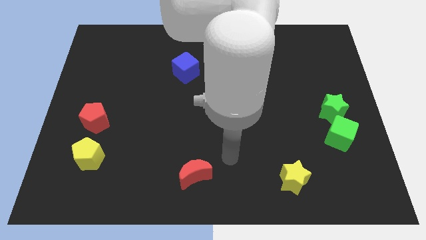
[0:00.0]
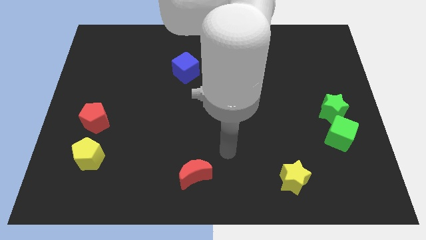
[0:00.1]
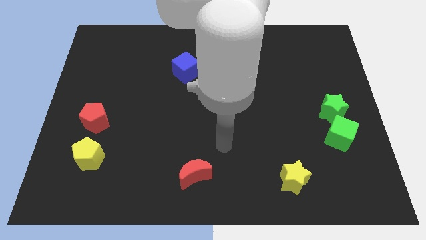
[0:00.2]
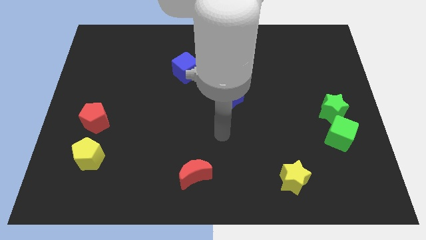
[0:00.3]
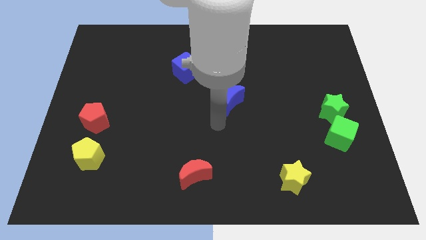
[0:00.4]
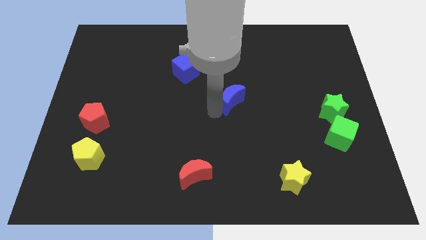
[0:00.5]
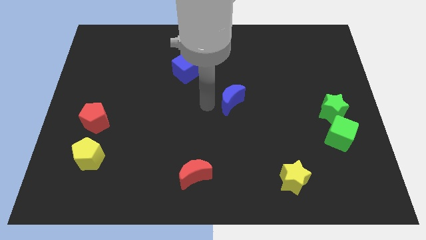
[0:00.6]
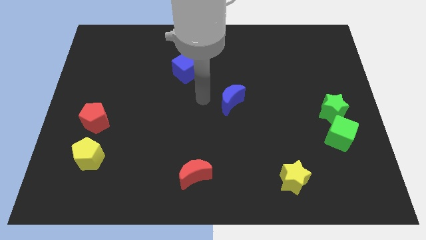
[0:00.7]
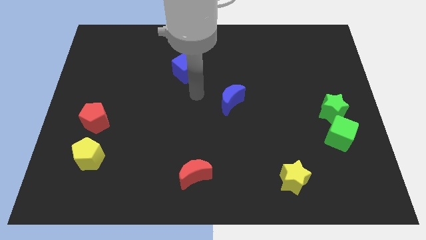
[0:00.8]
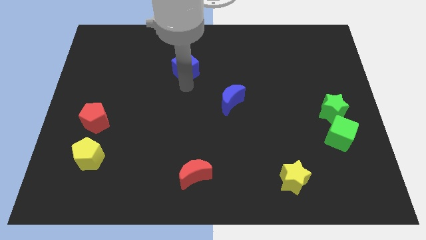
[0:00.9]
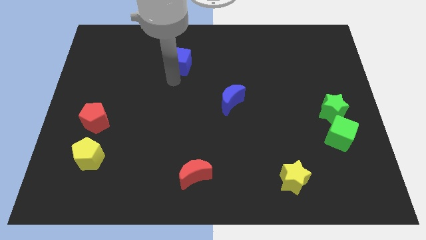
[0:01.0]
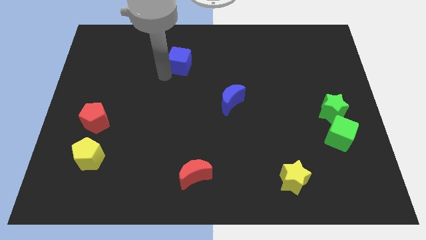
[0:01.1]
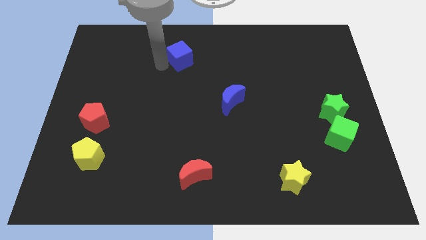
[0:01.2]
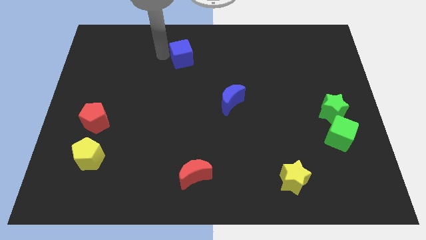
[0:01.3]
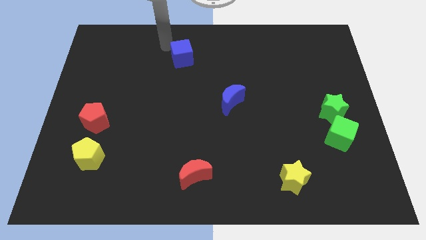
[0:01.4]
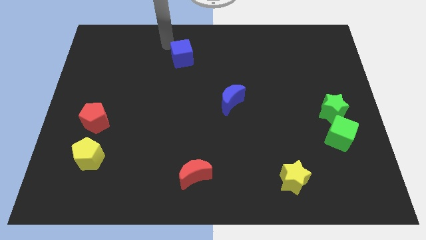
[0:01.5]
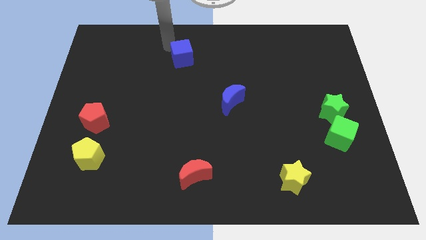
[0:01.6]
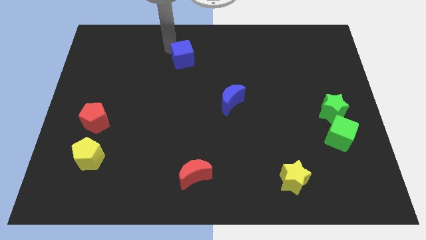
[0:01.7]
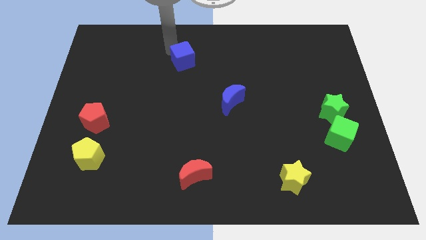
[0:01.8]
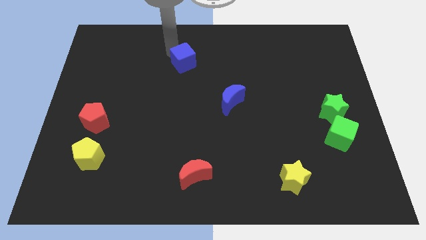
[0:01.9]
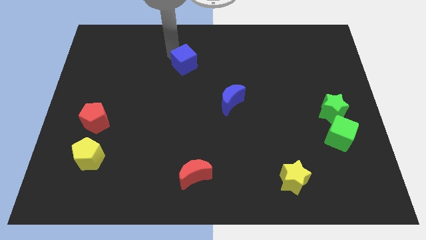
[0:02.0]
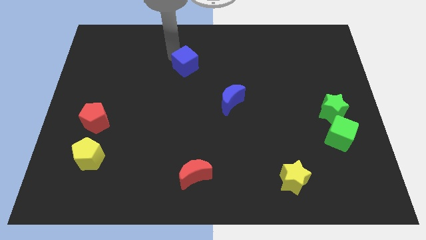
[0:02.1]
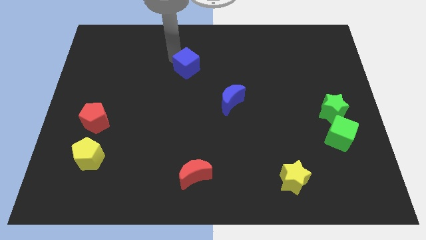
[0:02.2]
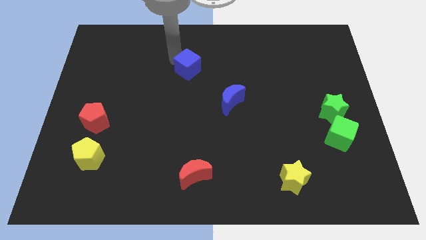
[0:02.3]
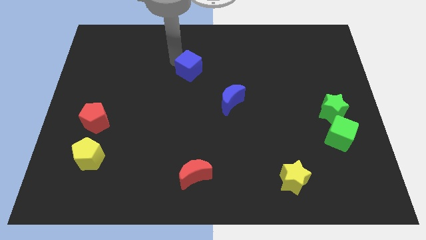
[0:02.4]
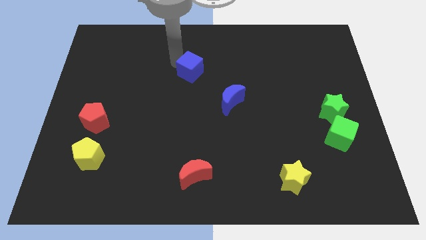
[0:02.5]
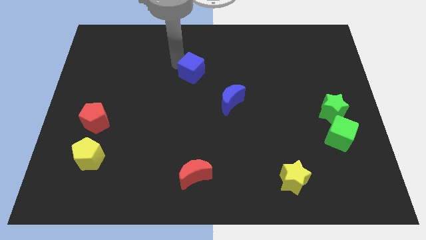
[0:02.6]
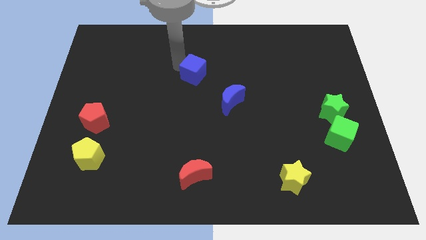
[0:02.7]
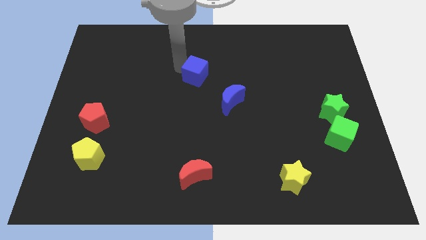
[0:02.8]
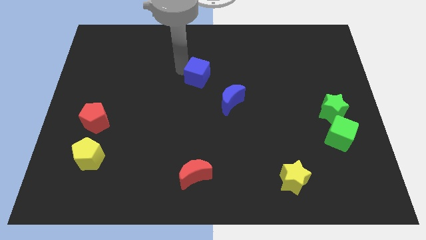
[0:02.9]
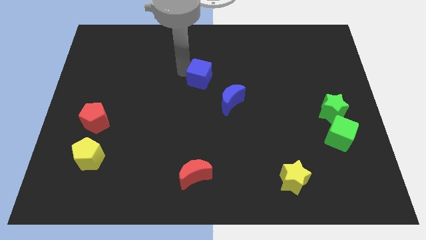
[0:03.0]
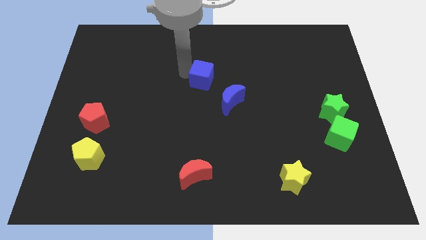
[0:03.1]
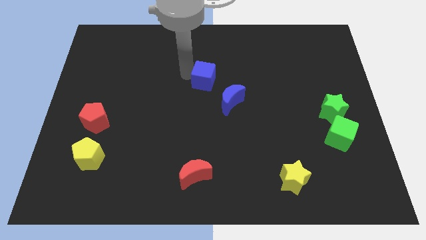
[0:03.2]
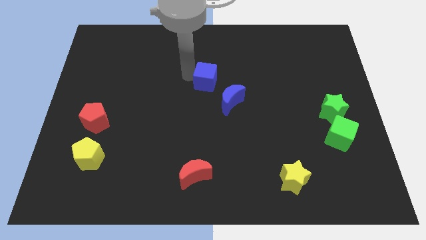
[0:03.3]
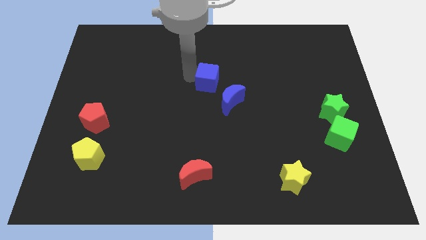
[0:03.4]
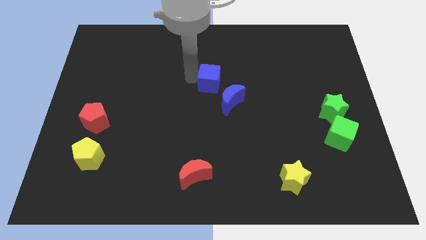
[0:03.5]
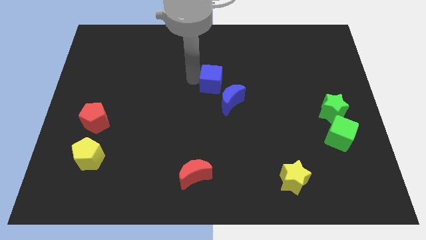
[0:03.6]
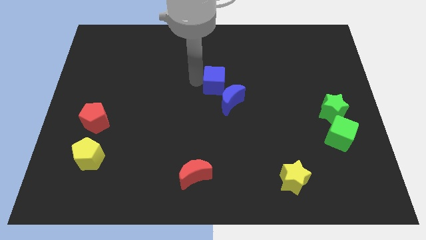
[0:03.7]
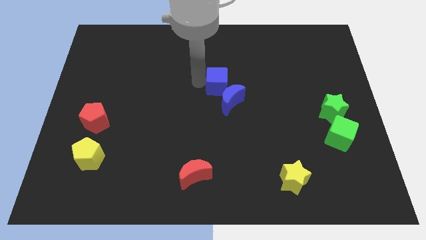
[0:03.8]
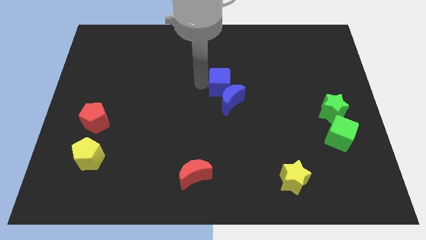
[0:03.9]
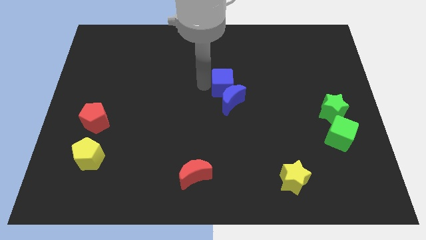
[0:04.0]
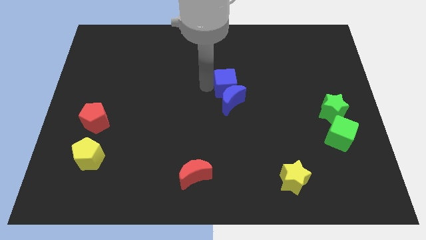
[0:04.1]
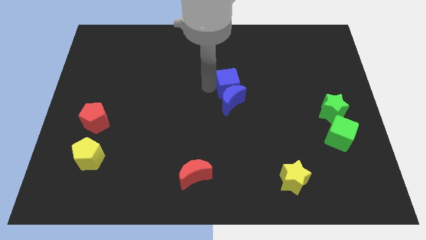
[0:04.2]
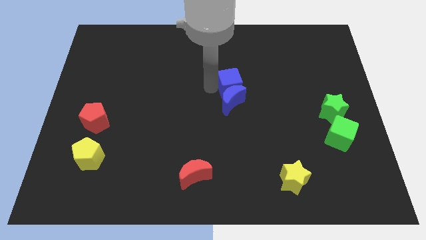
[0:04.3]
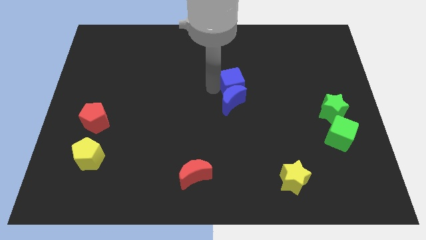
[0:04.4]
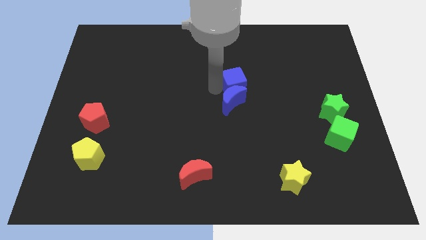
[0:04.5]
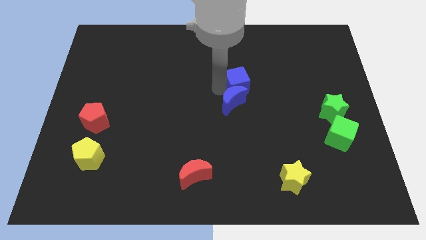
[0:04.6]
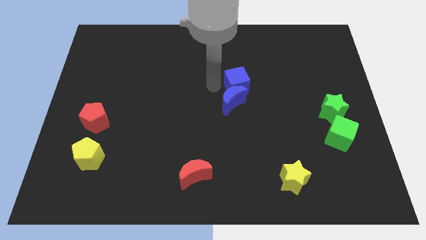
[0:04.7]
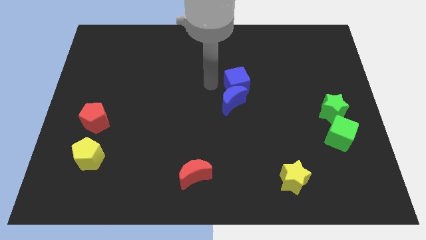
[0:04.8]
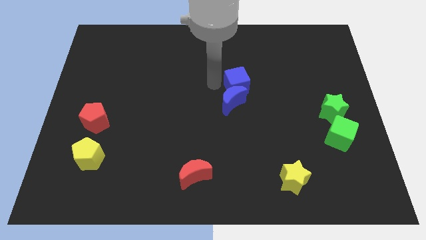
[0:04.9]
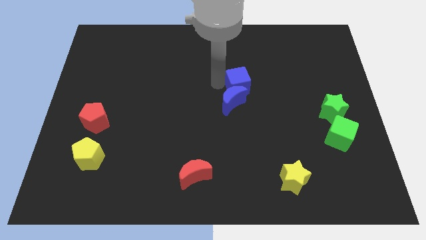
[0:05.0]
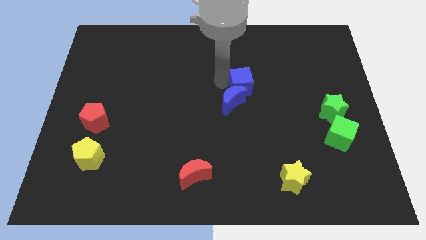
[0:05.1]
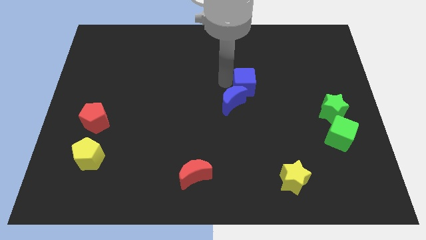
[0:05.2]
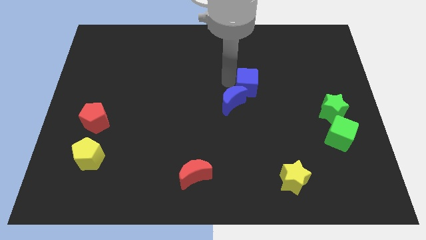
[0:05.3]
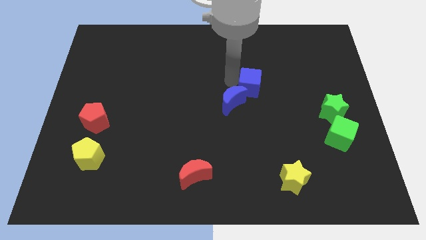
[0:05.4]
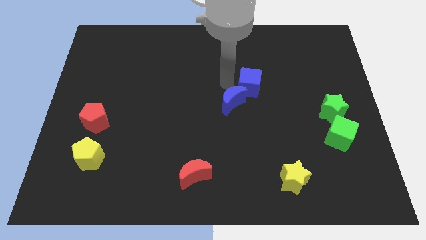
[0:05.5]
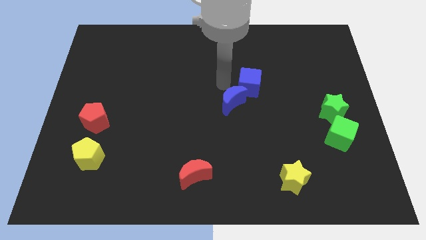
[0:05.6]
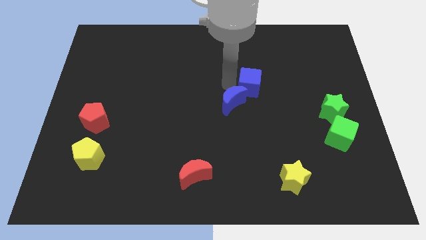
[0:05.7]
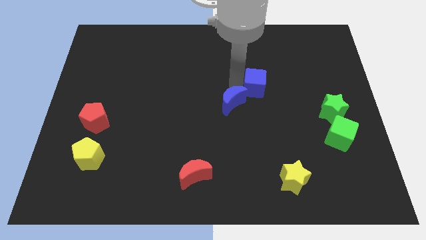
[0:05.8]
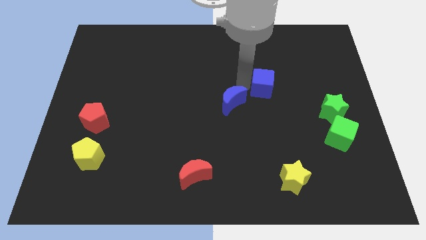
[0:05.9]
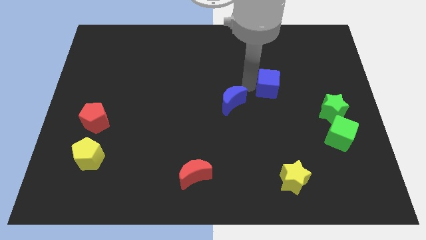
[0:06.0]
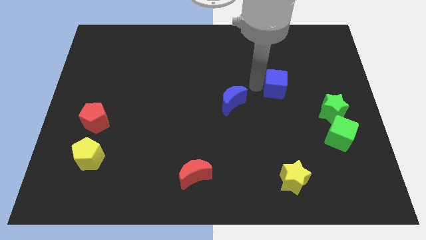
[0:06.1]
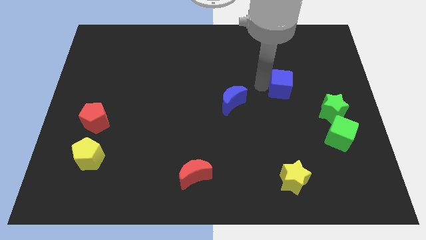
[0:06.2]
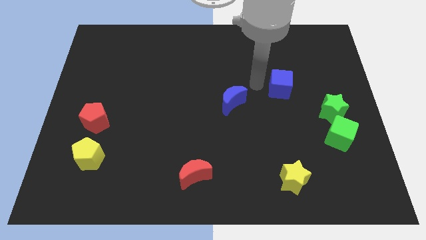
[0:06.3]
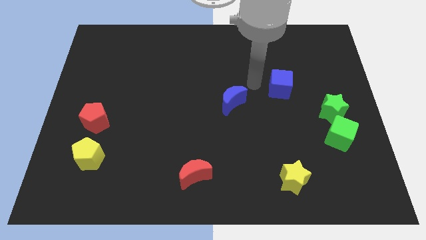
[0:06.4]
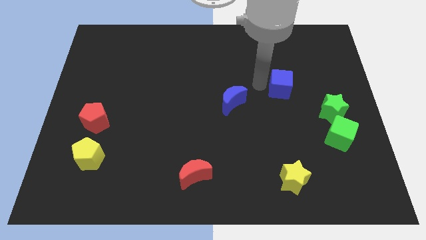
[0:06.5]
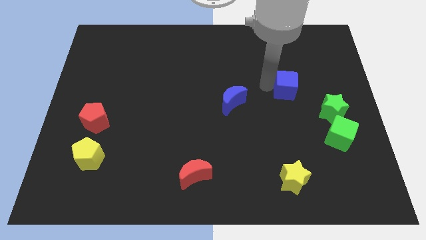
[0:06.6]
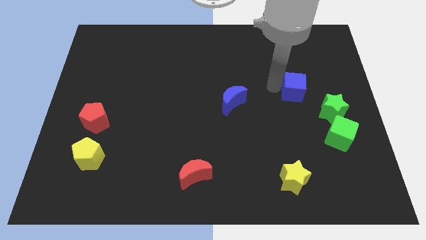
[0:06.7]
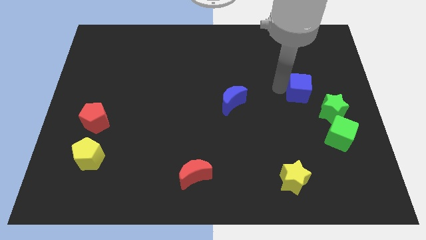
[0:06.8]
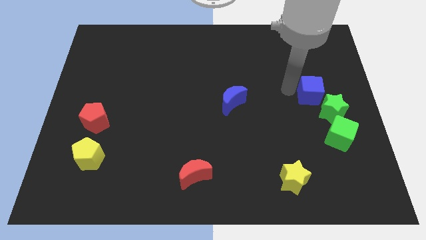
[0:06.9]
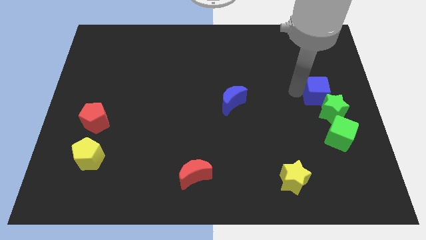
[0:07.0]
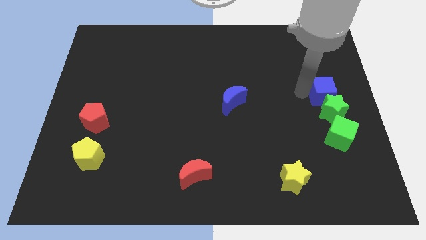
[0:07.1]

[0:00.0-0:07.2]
push the blue cube to the right side
